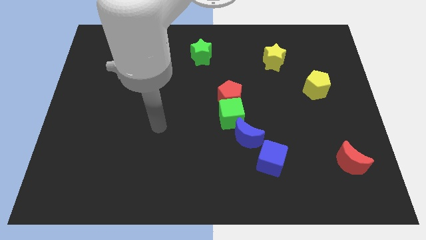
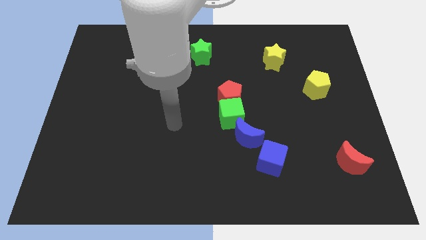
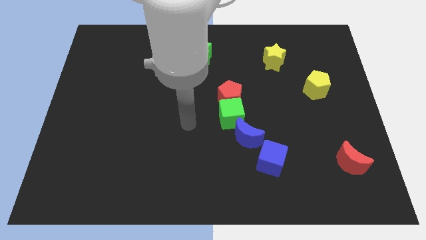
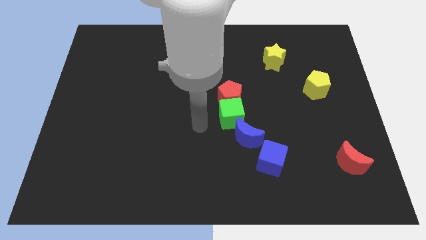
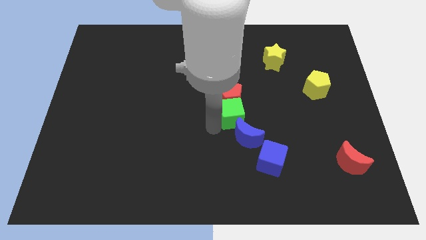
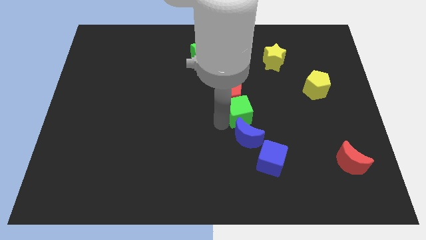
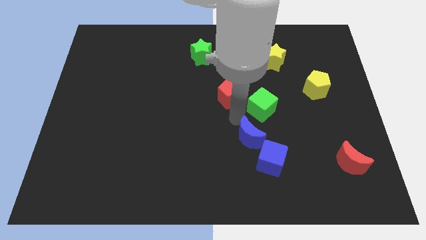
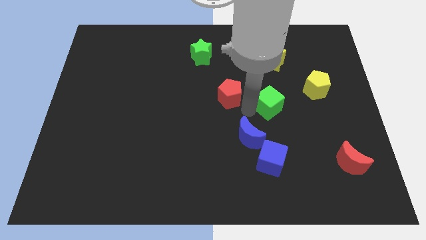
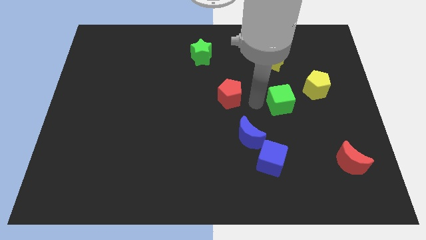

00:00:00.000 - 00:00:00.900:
separate the red pentagon from the green cube

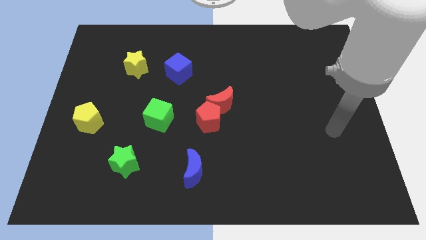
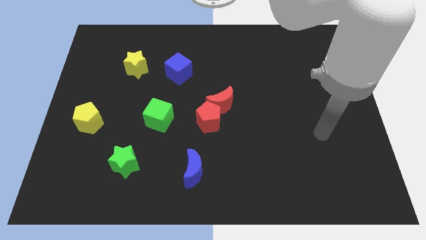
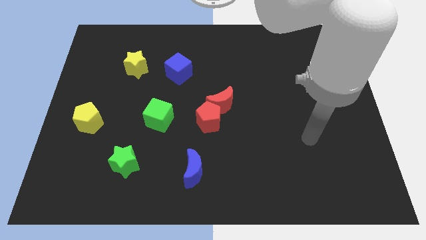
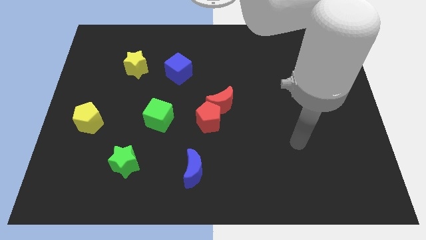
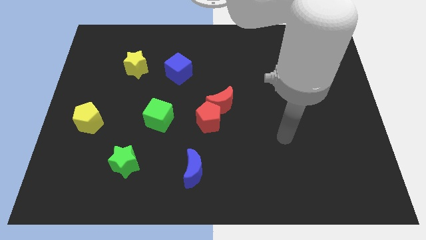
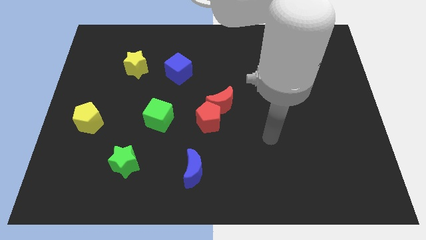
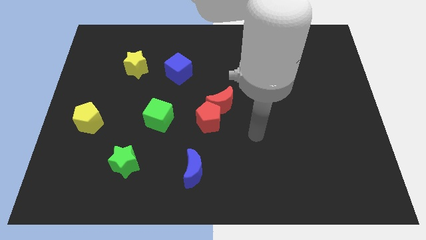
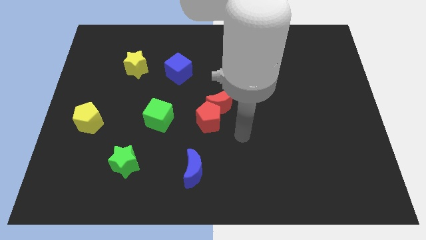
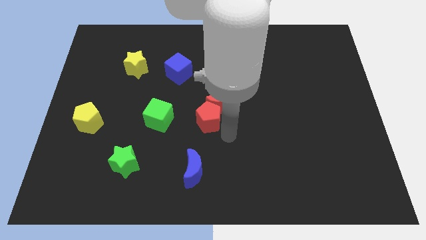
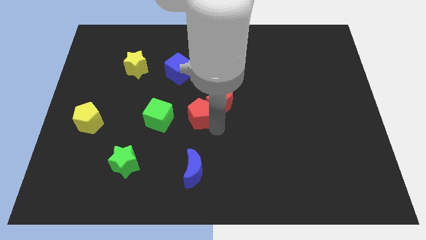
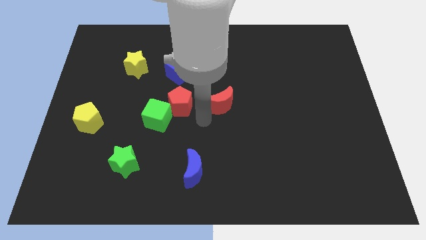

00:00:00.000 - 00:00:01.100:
move the red moon away from the red pentagon

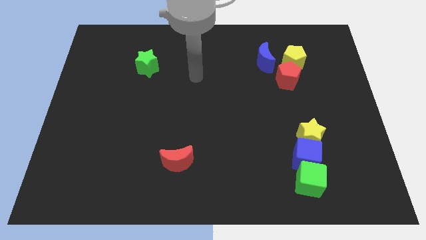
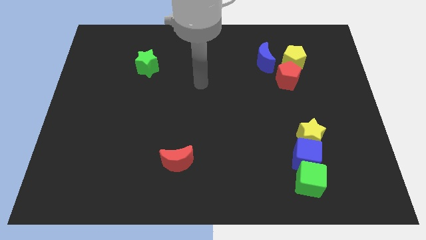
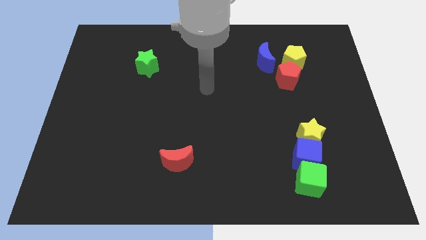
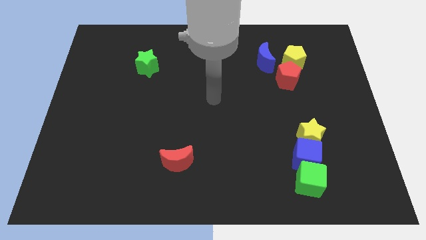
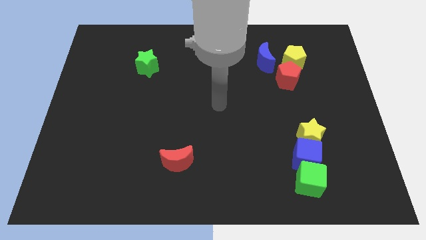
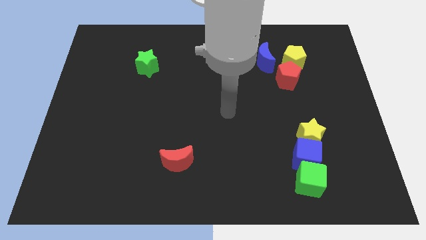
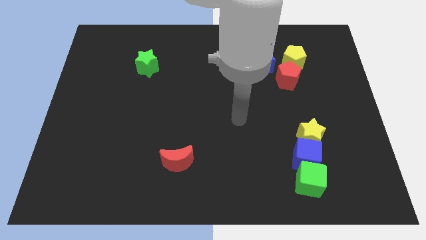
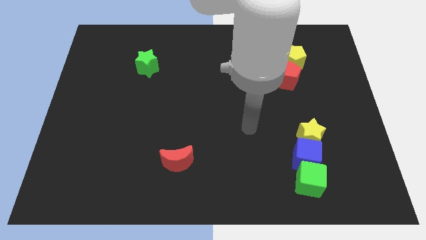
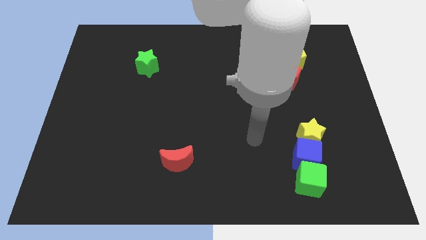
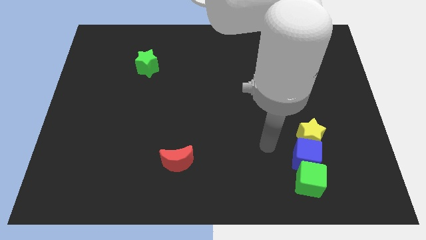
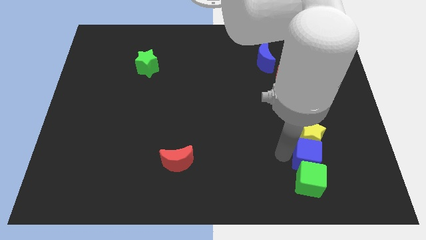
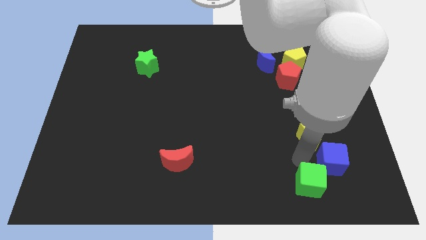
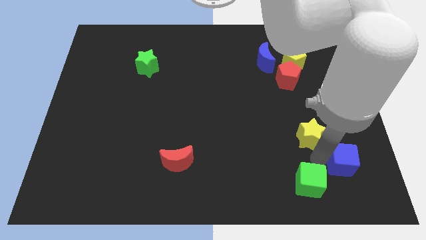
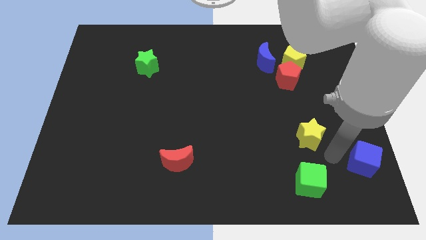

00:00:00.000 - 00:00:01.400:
separate the yellow star from the blue cube

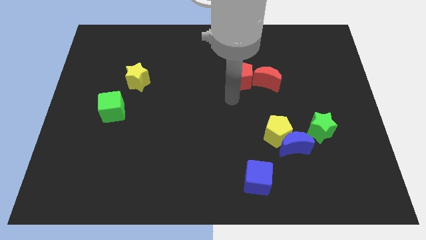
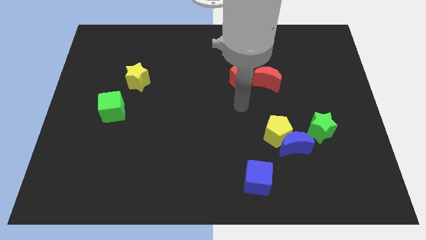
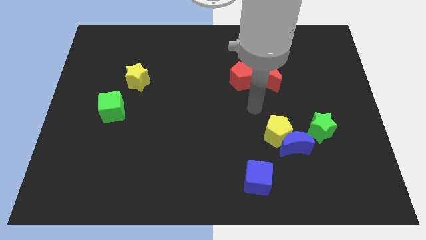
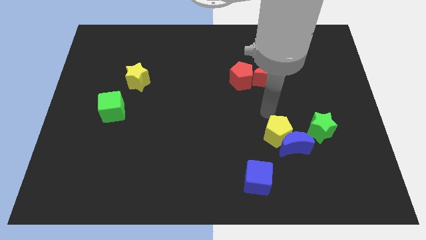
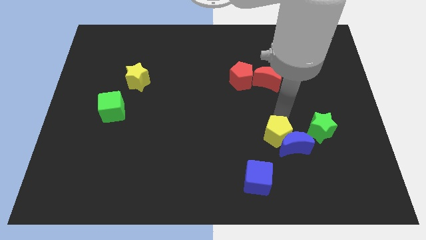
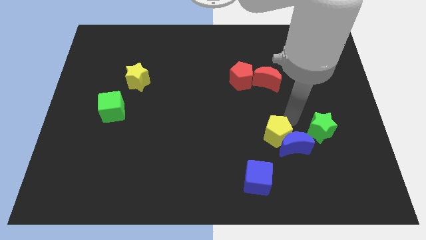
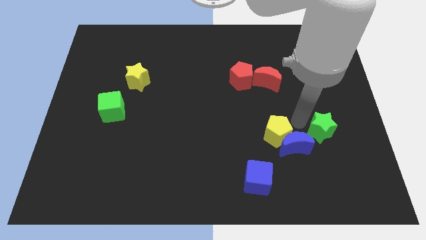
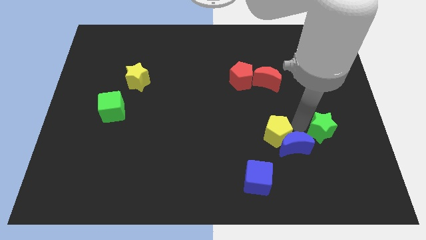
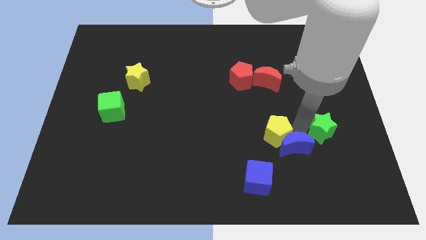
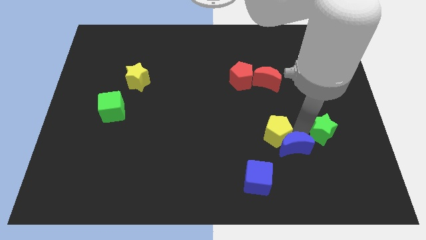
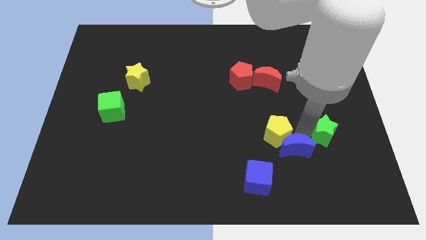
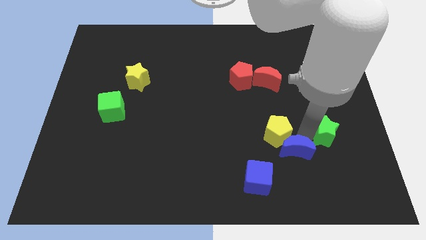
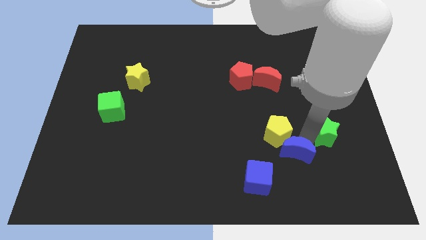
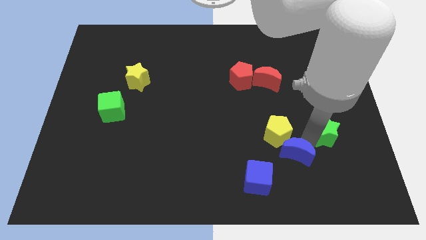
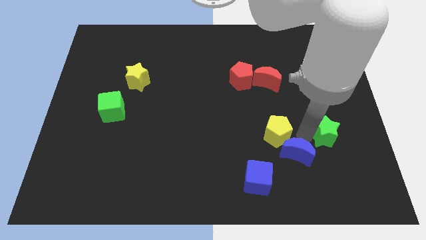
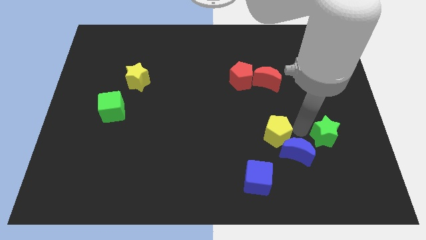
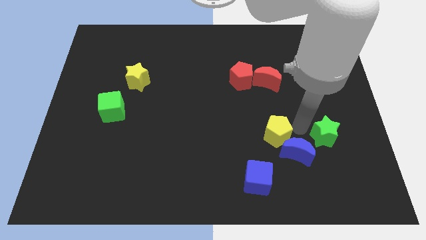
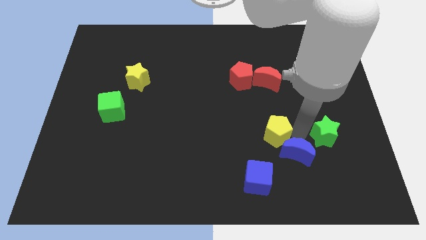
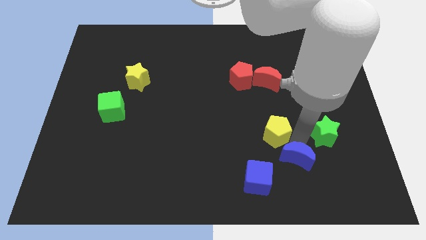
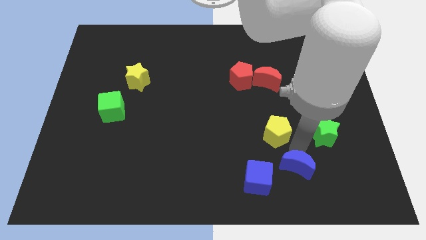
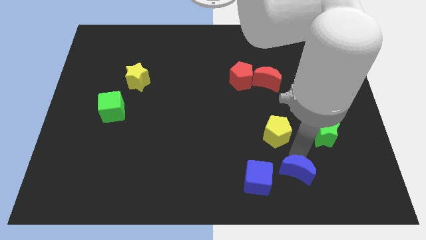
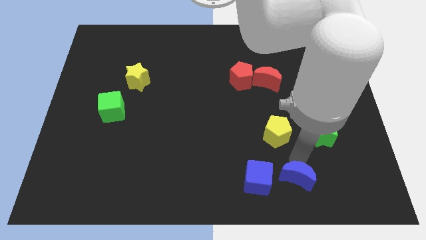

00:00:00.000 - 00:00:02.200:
pull the blue moon apart from the yellow pentagon and green star

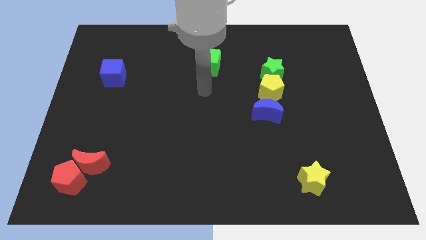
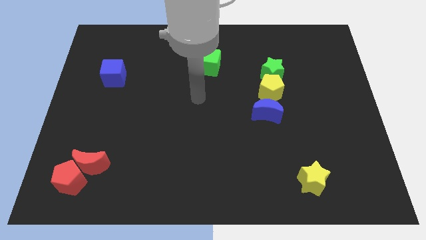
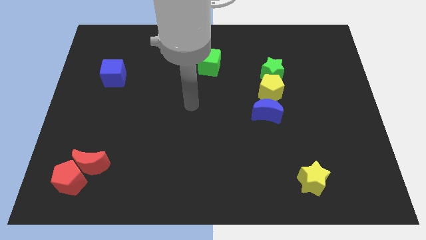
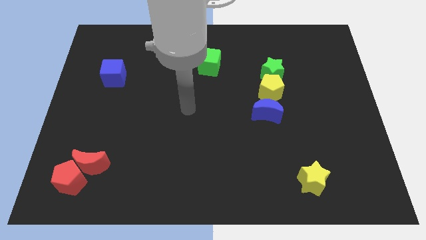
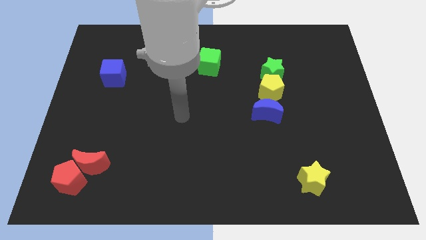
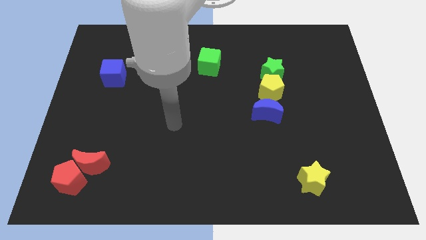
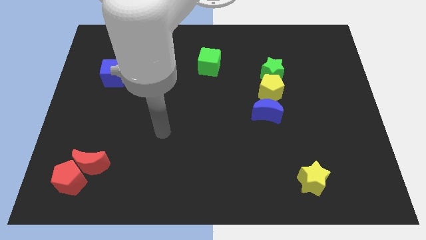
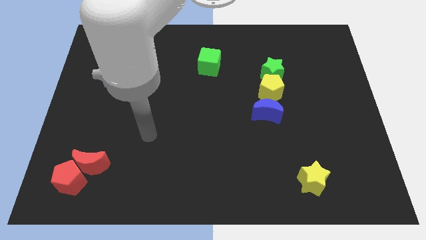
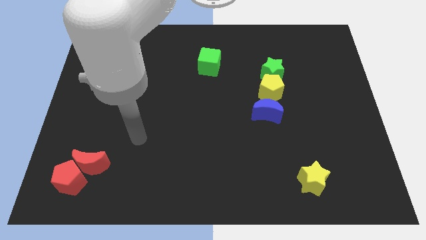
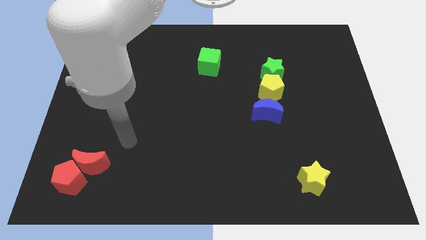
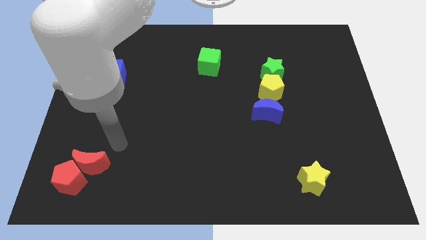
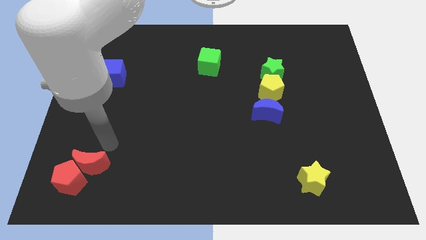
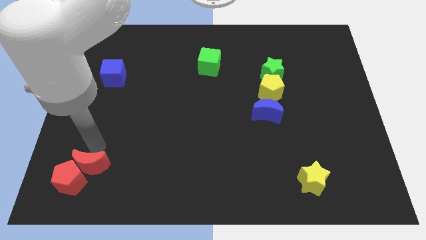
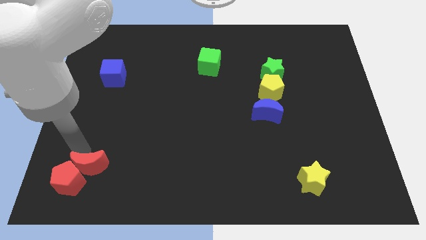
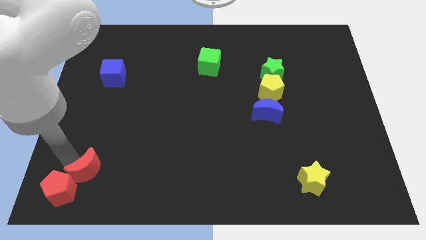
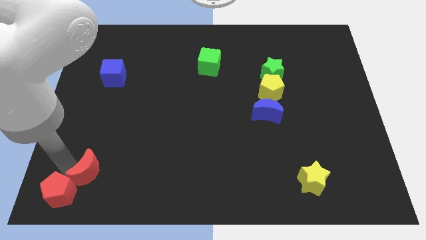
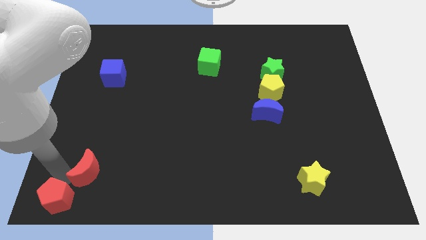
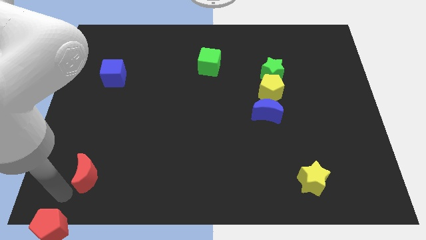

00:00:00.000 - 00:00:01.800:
separate the red moon from the red pentagon

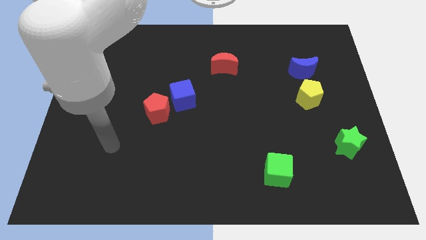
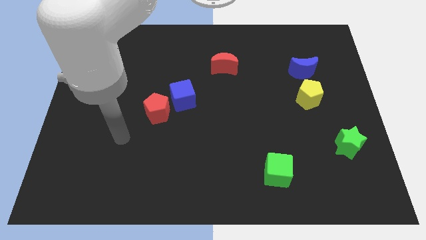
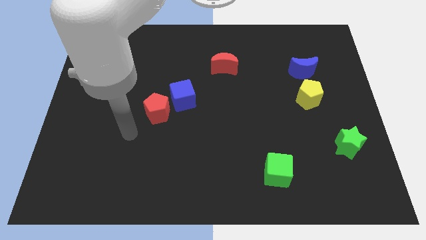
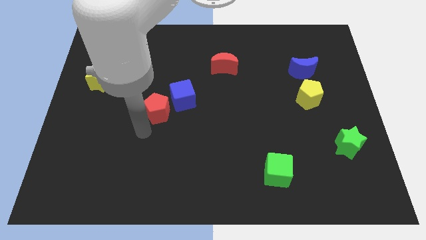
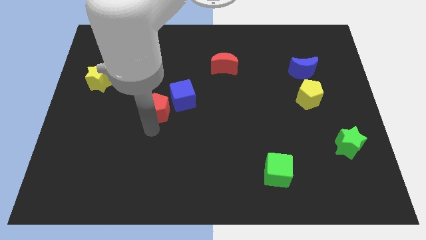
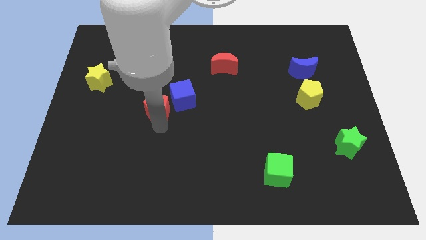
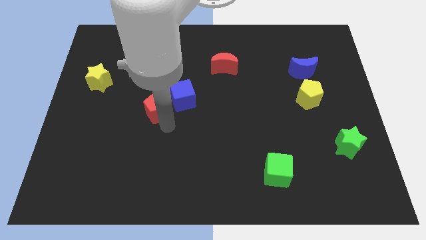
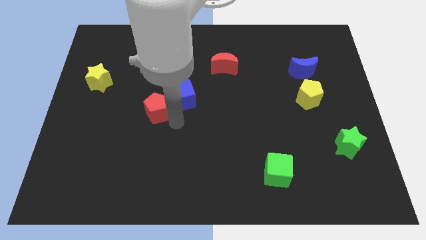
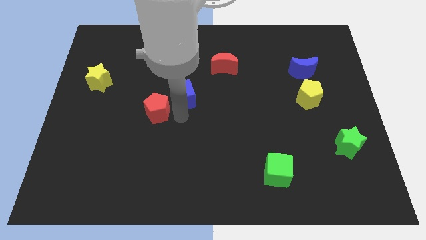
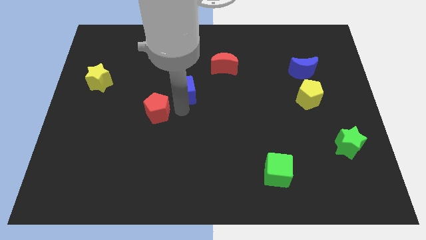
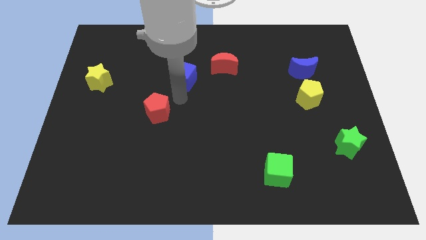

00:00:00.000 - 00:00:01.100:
separate the red pentagon from the blue cube

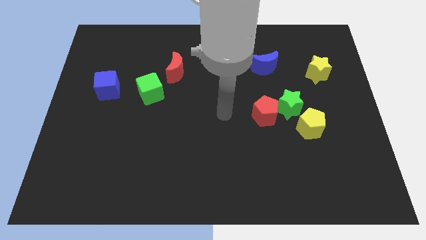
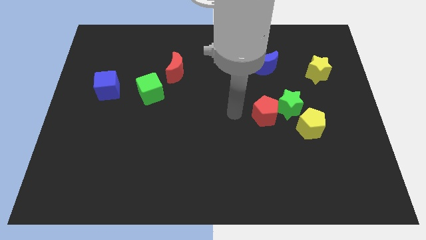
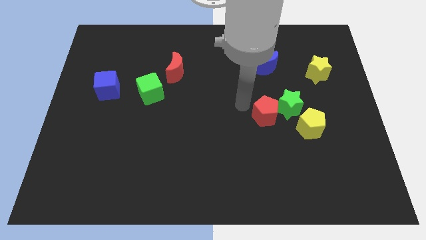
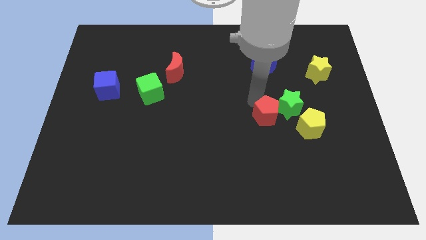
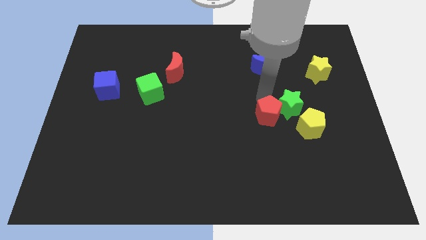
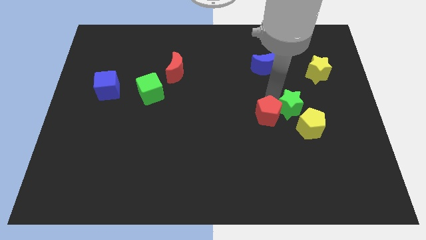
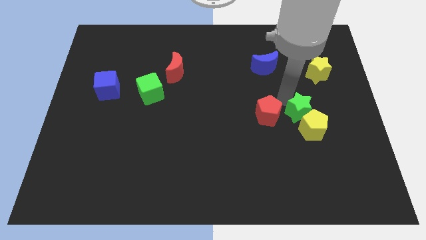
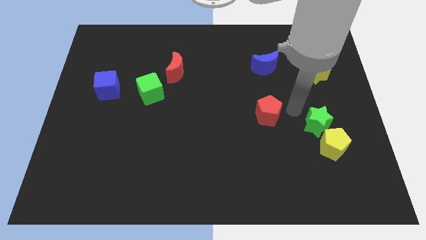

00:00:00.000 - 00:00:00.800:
pull the red pentagon apart from the green star
